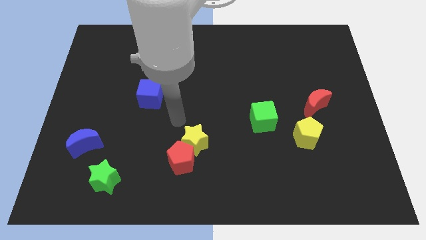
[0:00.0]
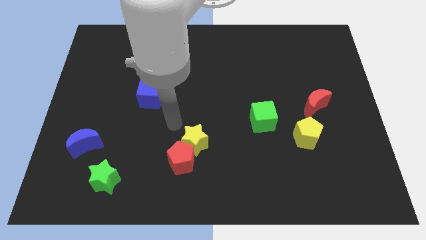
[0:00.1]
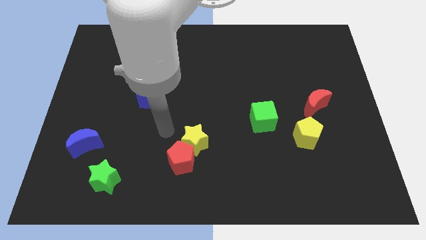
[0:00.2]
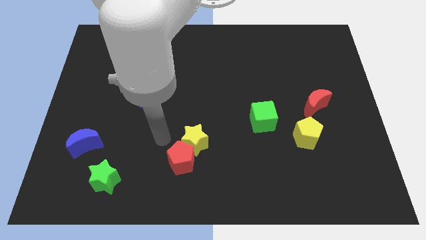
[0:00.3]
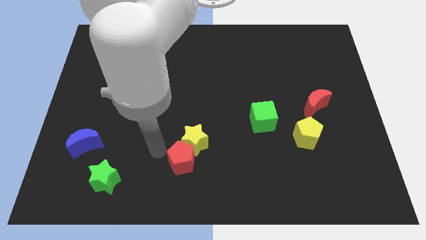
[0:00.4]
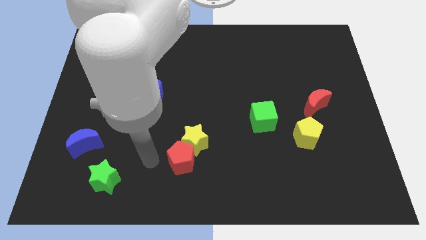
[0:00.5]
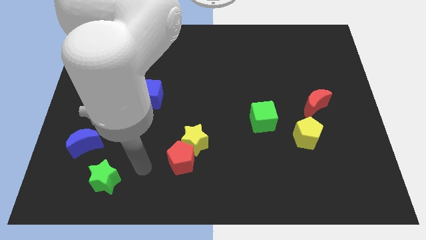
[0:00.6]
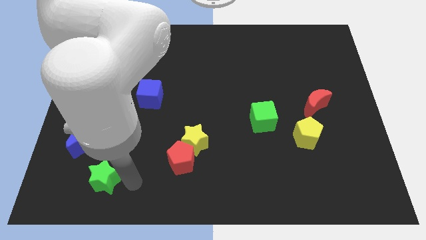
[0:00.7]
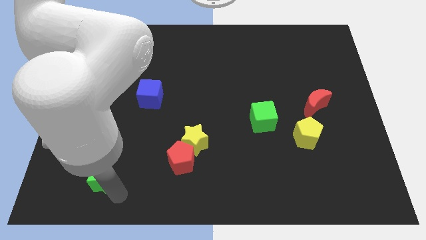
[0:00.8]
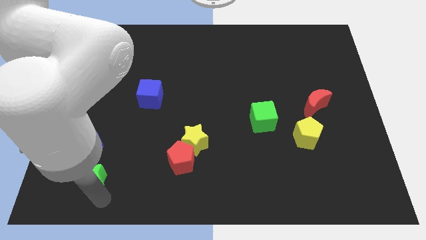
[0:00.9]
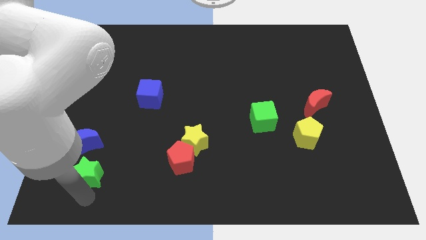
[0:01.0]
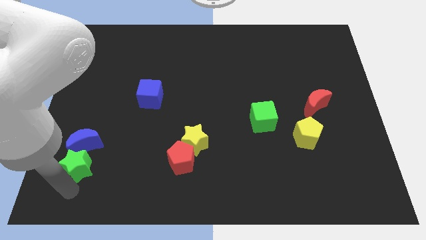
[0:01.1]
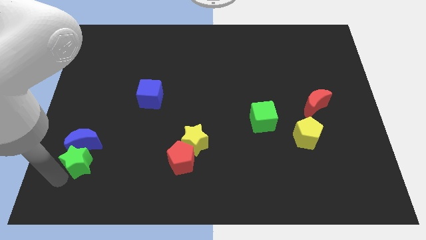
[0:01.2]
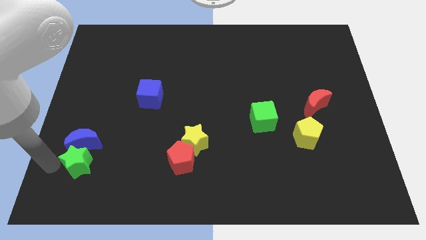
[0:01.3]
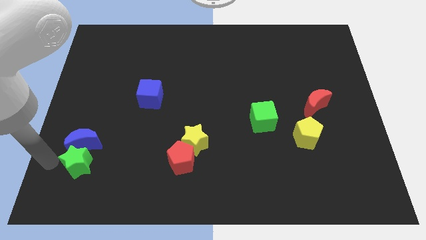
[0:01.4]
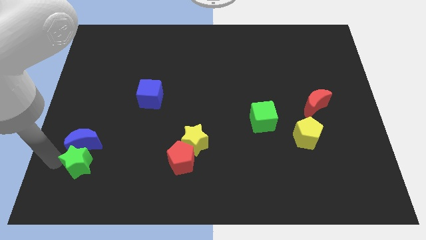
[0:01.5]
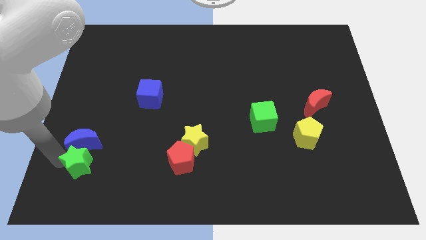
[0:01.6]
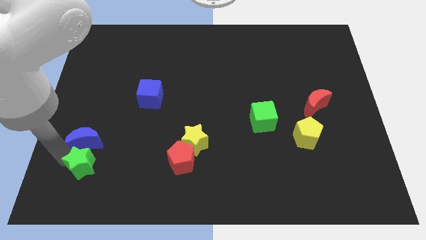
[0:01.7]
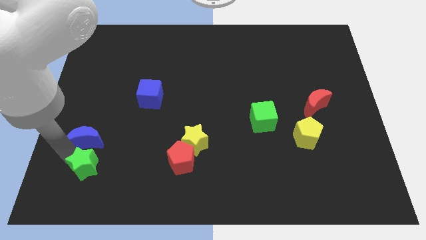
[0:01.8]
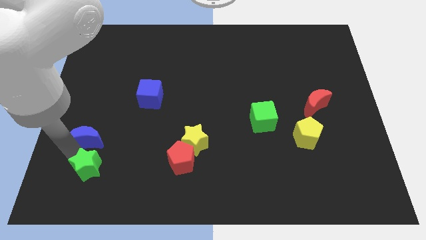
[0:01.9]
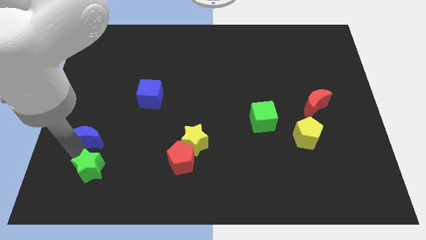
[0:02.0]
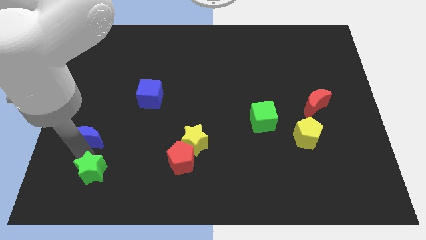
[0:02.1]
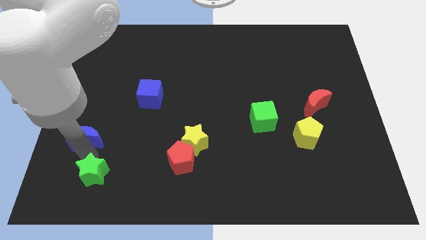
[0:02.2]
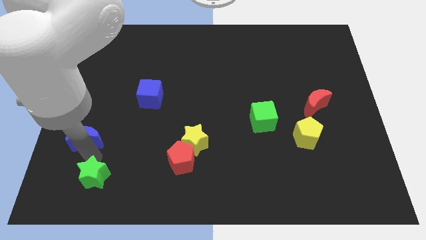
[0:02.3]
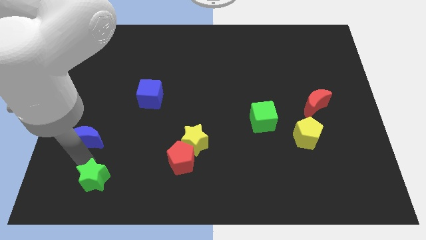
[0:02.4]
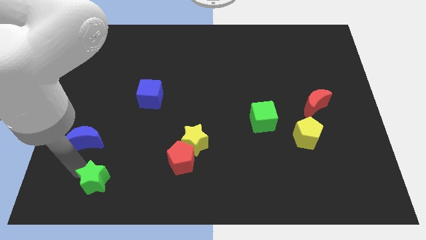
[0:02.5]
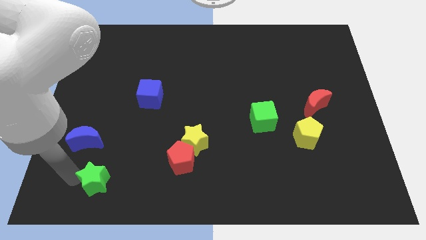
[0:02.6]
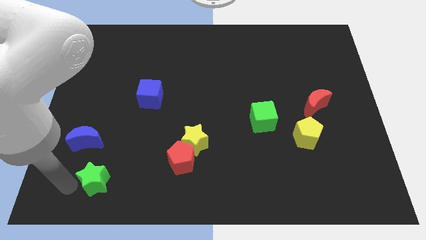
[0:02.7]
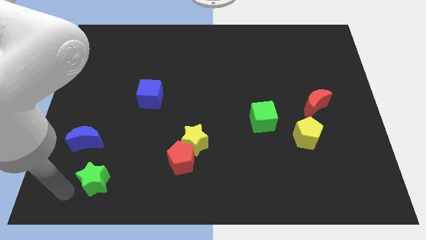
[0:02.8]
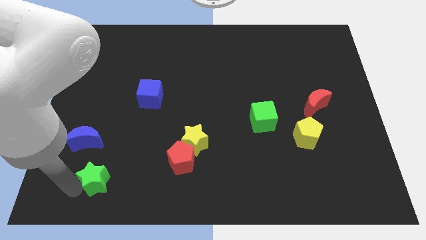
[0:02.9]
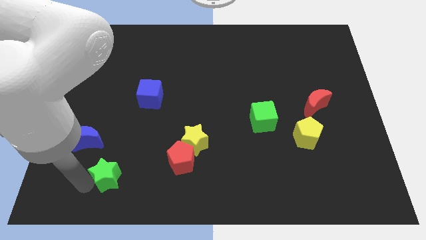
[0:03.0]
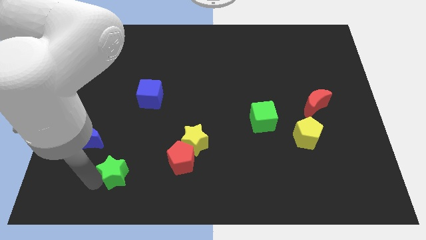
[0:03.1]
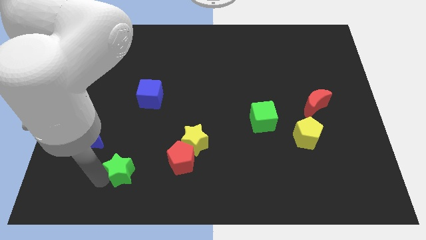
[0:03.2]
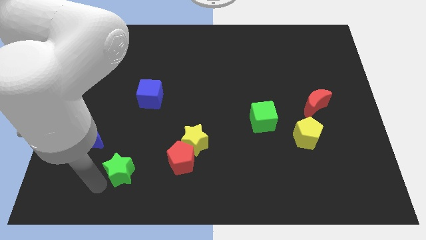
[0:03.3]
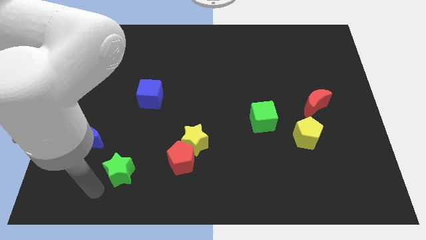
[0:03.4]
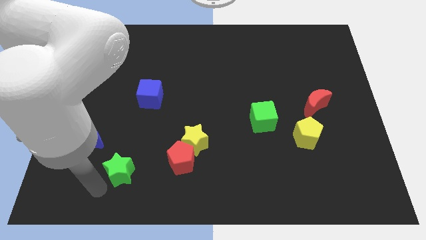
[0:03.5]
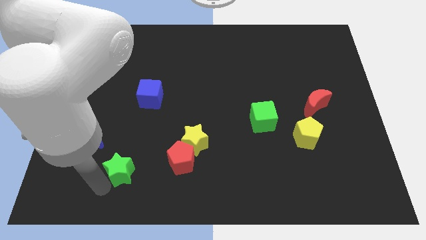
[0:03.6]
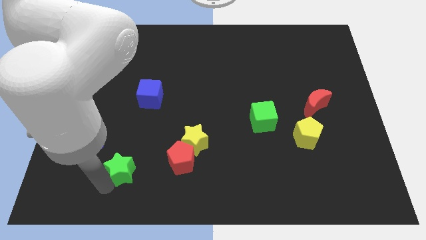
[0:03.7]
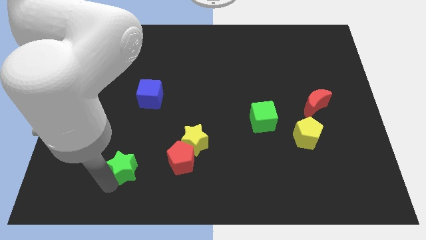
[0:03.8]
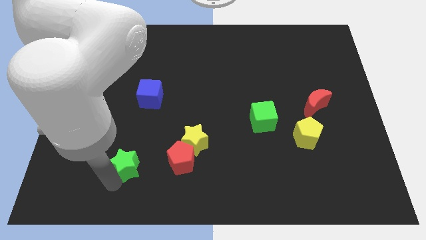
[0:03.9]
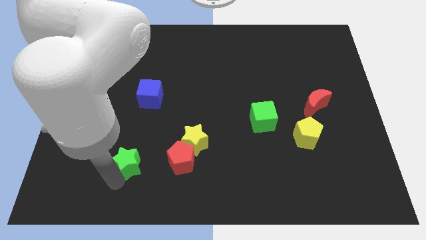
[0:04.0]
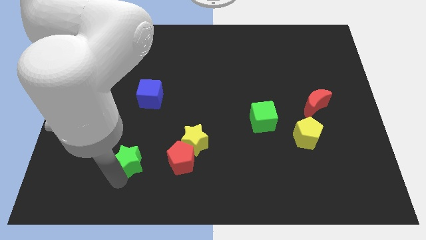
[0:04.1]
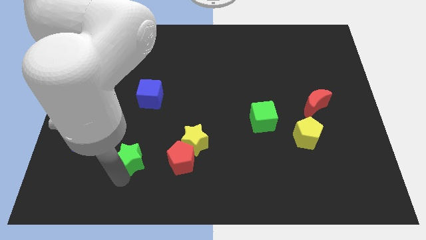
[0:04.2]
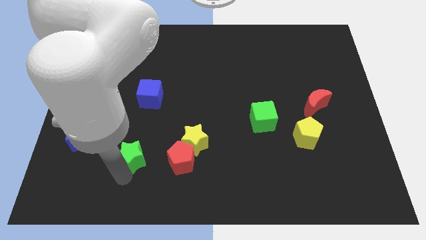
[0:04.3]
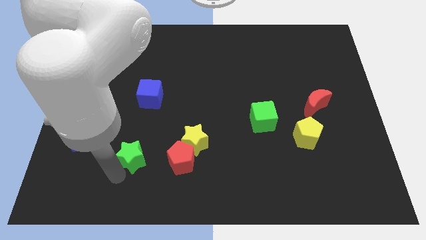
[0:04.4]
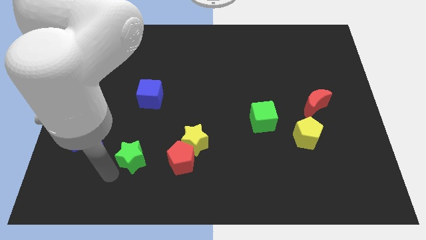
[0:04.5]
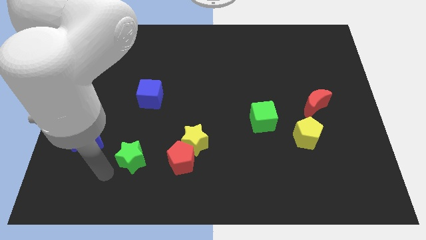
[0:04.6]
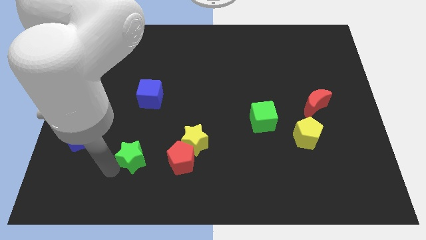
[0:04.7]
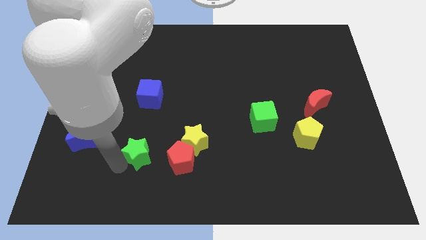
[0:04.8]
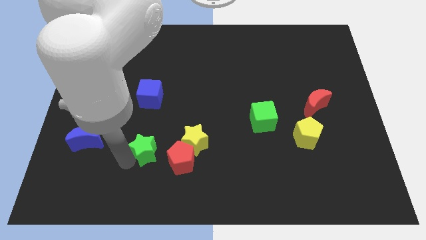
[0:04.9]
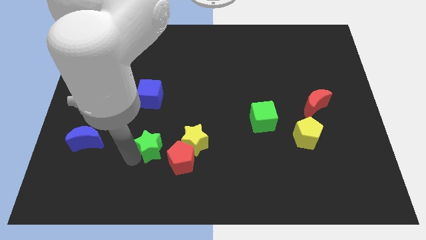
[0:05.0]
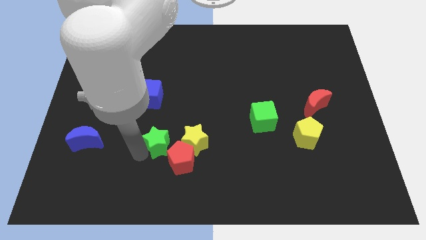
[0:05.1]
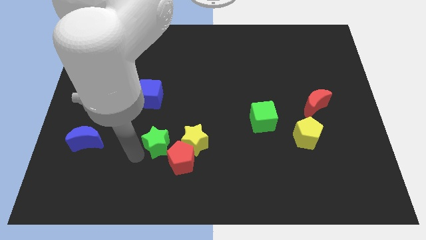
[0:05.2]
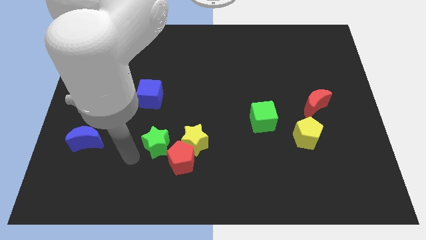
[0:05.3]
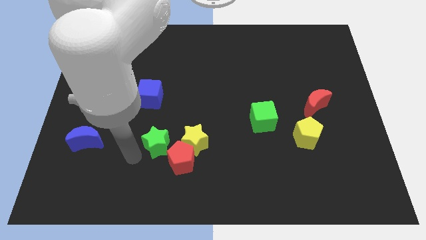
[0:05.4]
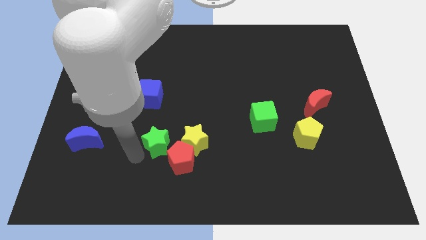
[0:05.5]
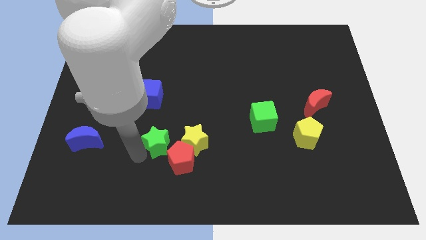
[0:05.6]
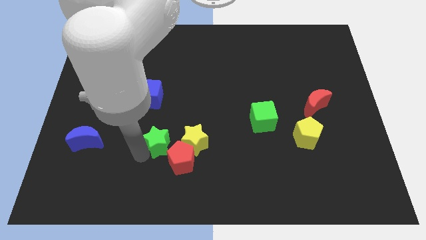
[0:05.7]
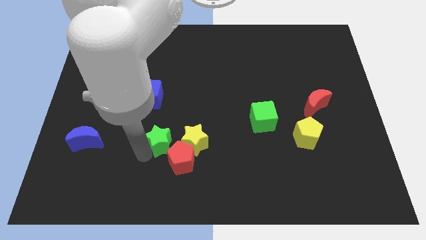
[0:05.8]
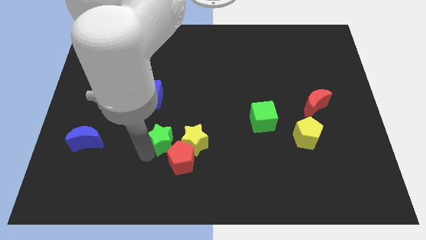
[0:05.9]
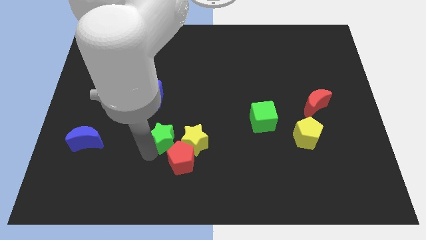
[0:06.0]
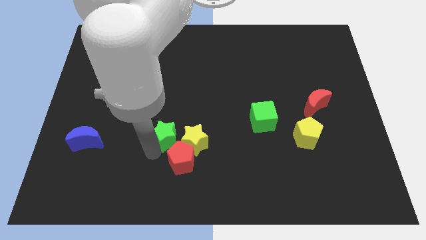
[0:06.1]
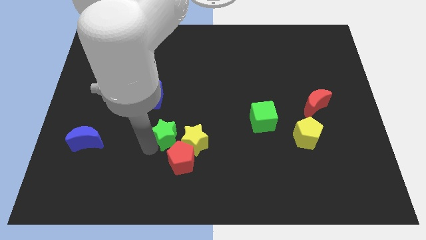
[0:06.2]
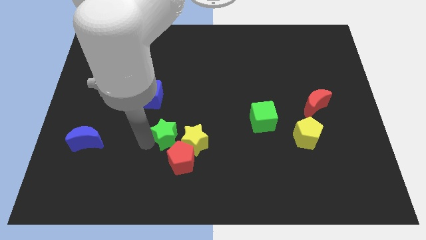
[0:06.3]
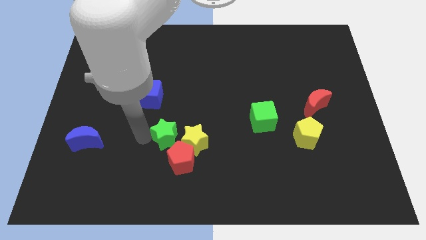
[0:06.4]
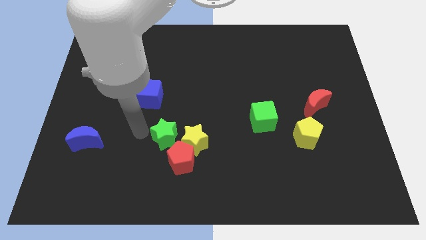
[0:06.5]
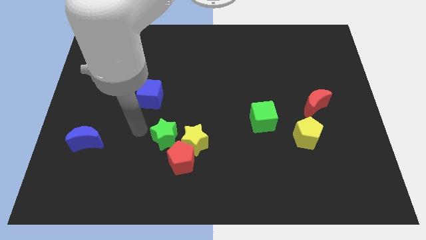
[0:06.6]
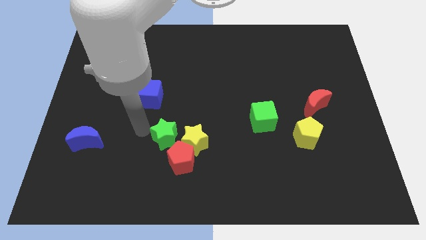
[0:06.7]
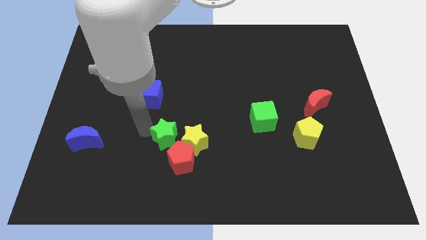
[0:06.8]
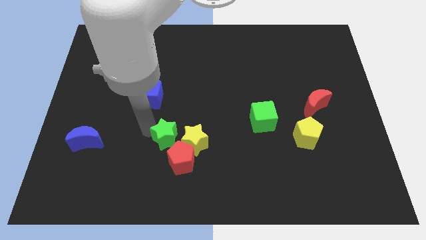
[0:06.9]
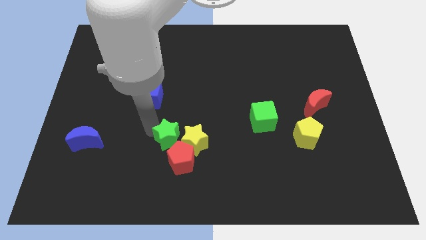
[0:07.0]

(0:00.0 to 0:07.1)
move the green star close to the yellow star

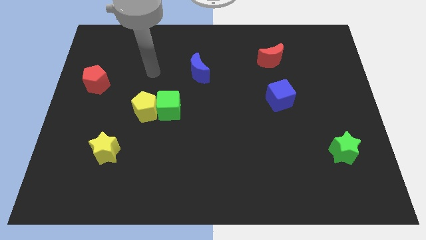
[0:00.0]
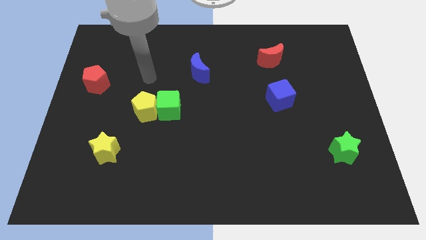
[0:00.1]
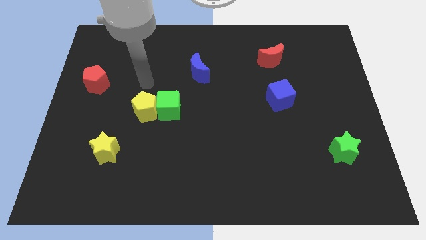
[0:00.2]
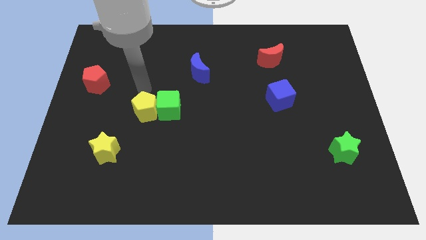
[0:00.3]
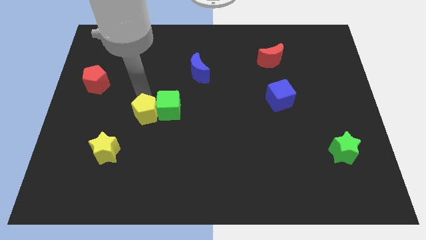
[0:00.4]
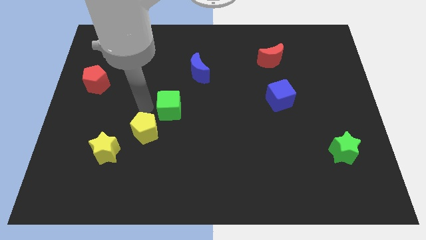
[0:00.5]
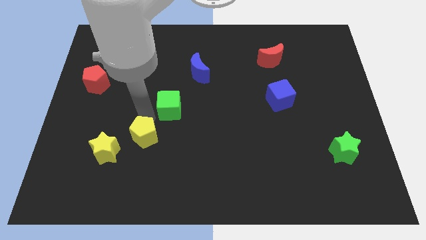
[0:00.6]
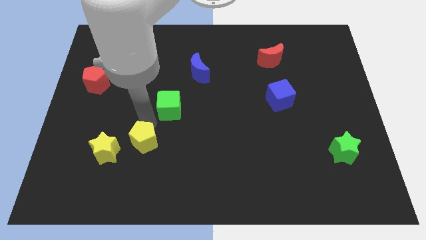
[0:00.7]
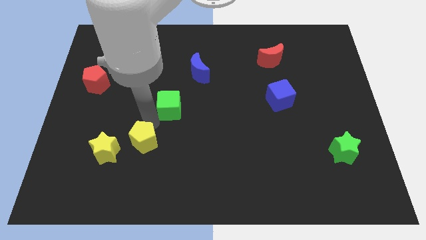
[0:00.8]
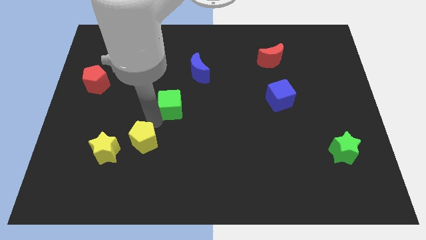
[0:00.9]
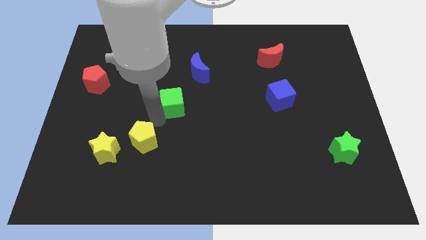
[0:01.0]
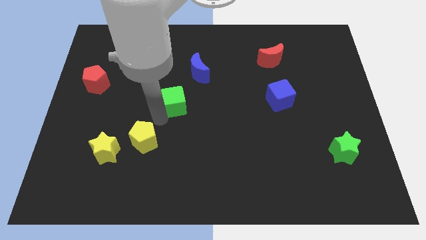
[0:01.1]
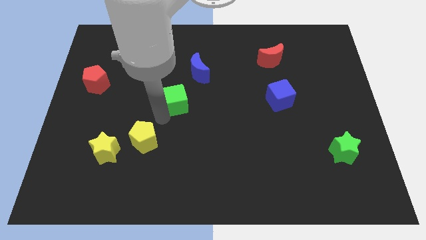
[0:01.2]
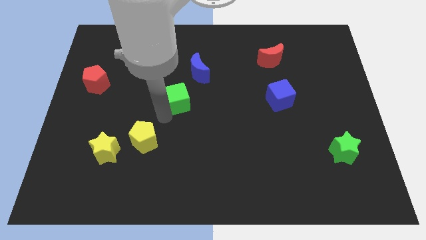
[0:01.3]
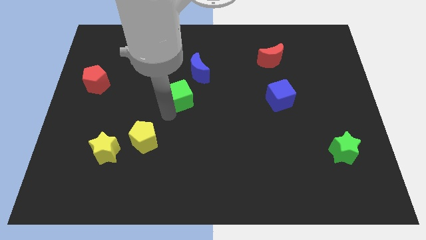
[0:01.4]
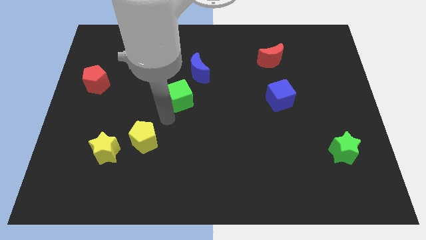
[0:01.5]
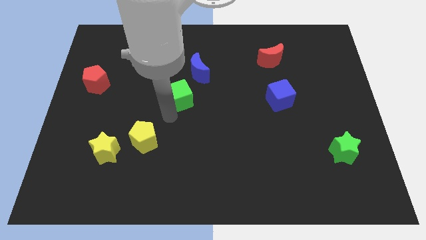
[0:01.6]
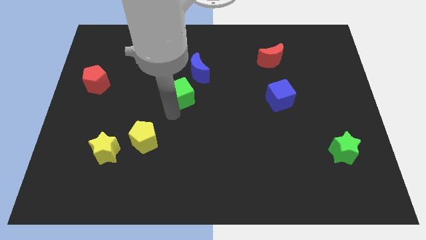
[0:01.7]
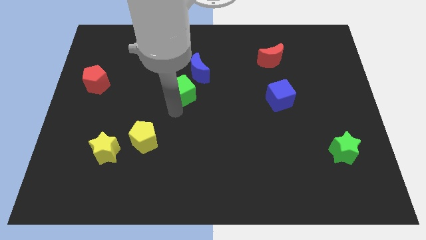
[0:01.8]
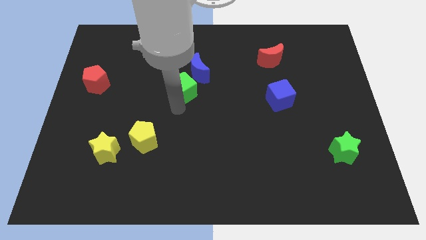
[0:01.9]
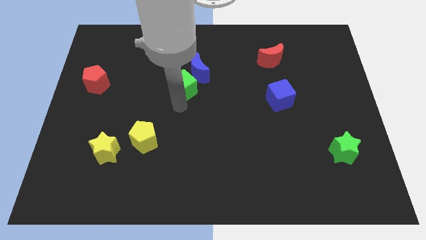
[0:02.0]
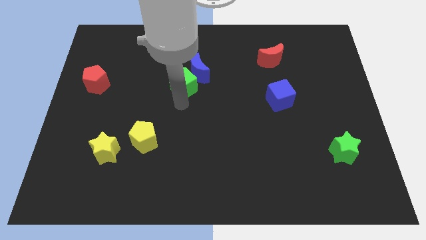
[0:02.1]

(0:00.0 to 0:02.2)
slide the green cube close to the blue moon
